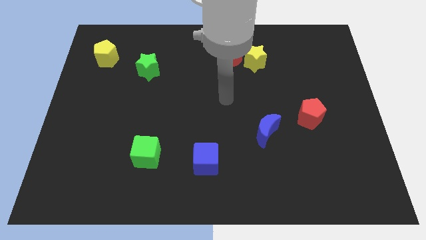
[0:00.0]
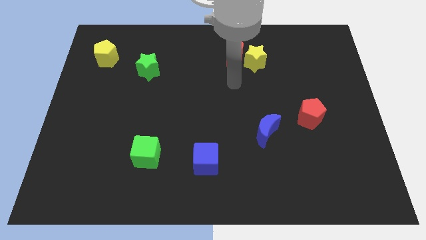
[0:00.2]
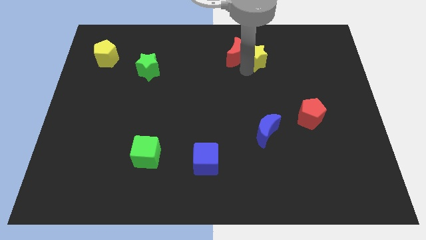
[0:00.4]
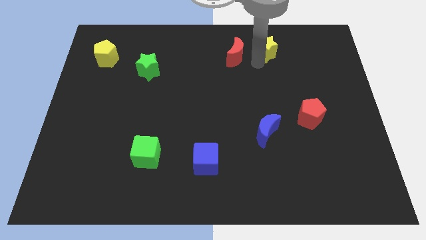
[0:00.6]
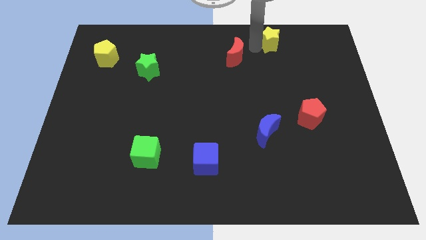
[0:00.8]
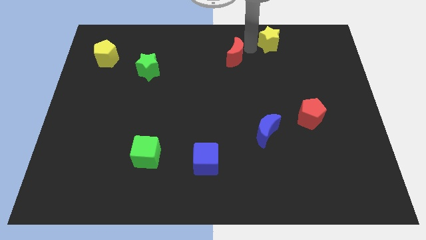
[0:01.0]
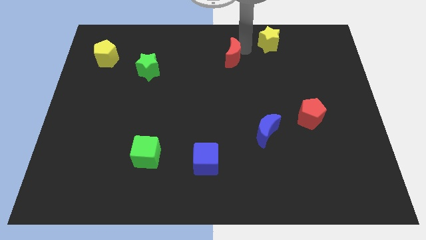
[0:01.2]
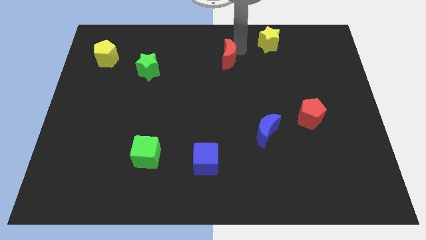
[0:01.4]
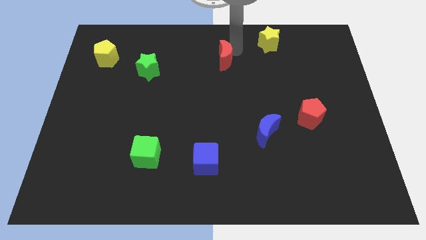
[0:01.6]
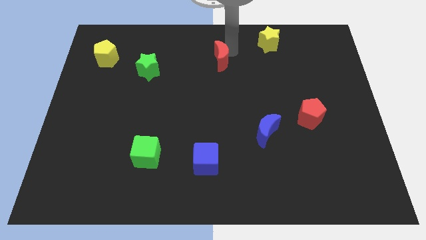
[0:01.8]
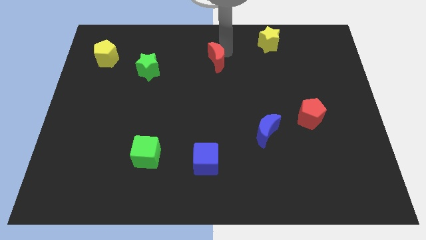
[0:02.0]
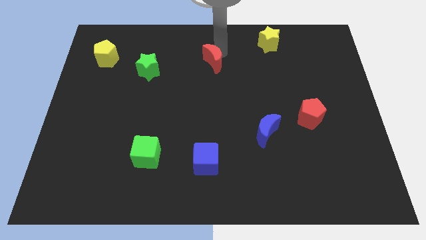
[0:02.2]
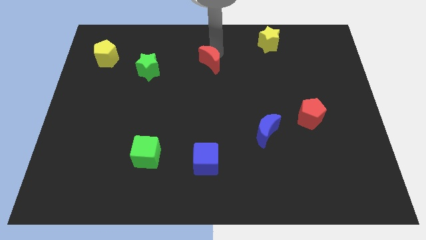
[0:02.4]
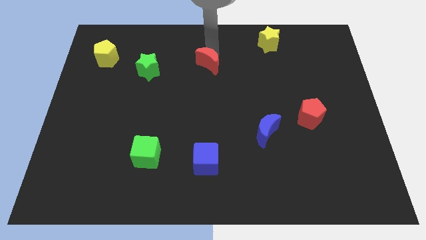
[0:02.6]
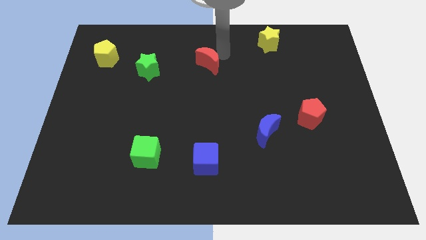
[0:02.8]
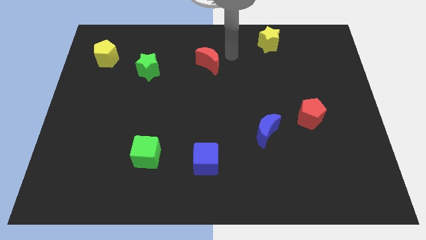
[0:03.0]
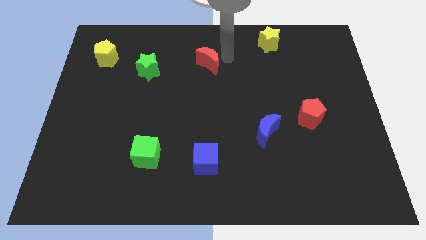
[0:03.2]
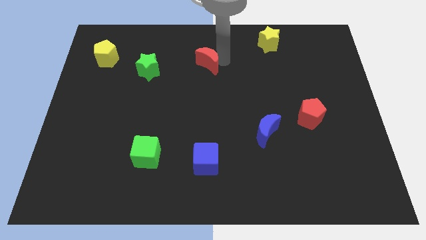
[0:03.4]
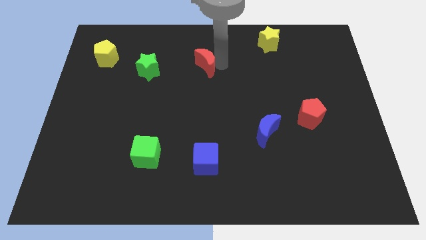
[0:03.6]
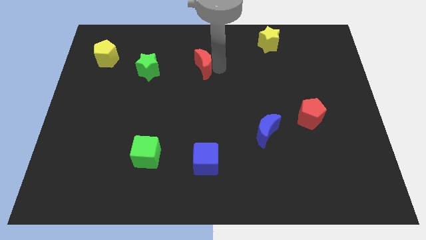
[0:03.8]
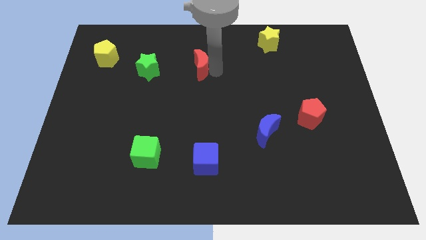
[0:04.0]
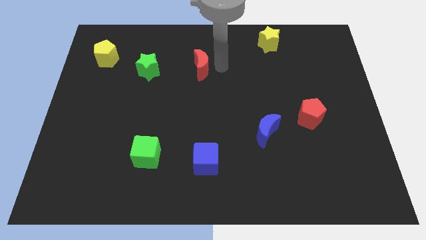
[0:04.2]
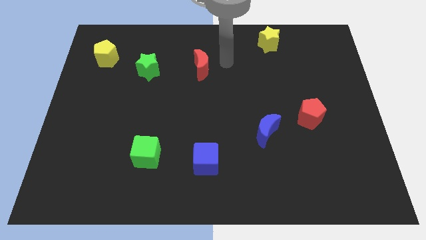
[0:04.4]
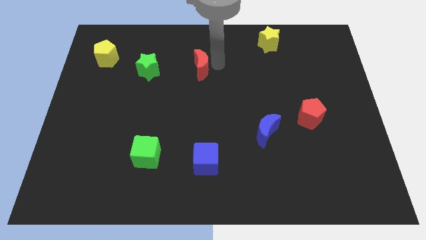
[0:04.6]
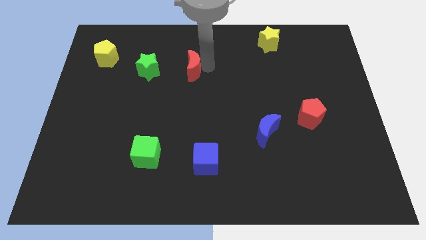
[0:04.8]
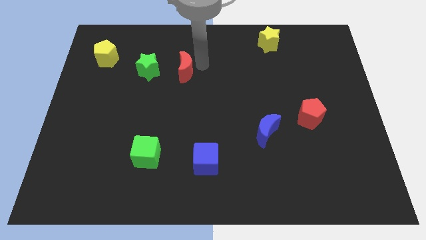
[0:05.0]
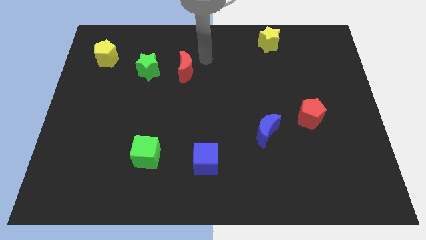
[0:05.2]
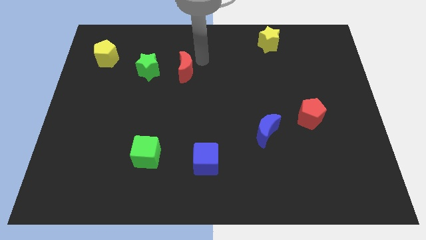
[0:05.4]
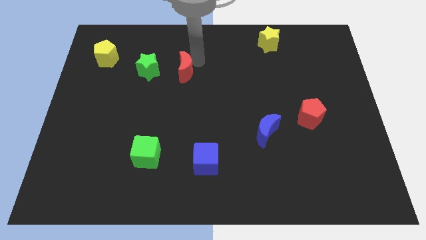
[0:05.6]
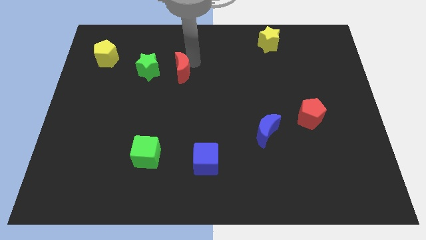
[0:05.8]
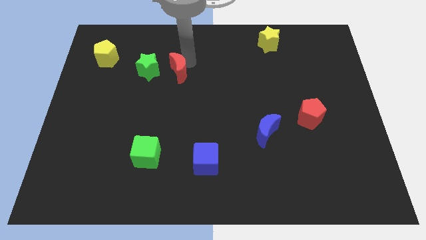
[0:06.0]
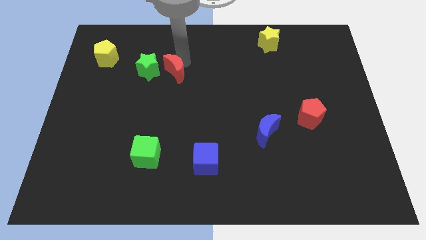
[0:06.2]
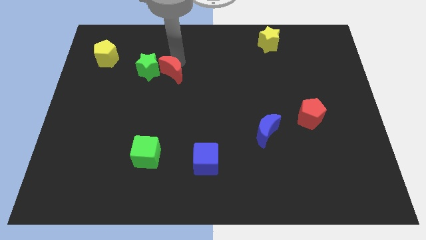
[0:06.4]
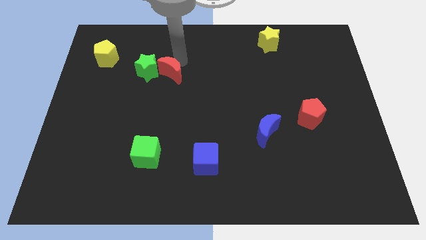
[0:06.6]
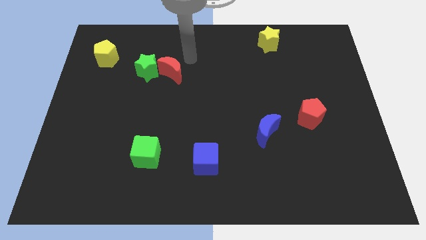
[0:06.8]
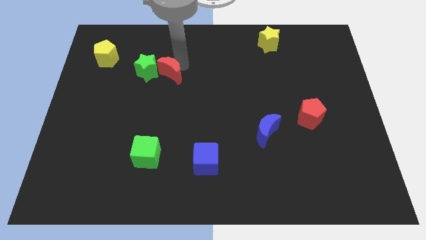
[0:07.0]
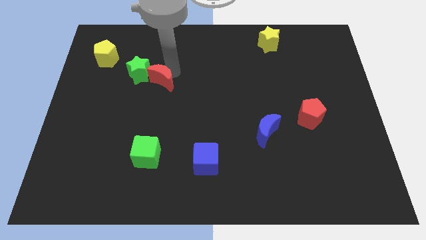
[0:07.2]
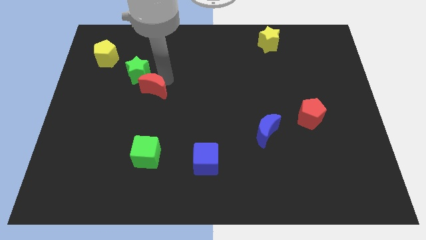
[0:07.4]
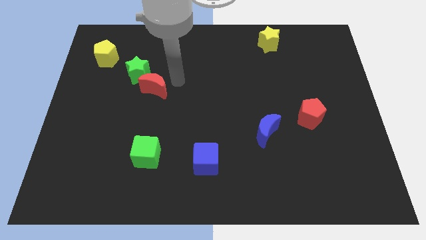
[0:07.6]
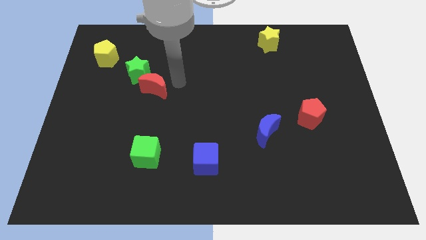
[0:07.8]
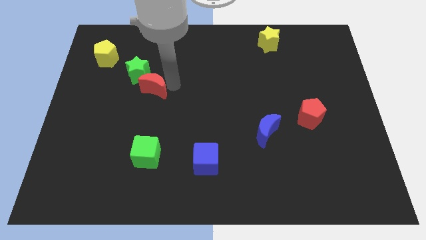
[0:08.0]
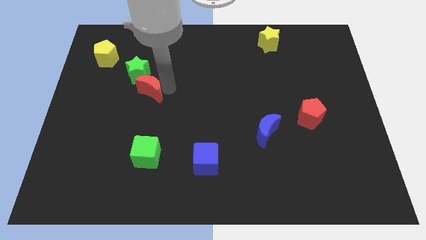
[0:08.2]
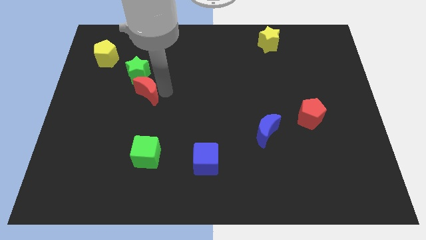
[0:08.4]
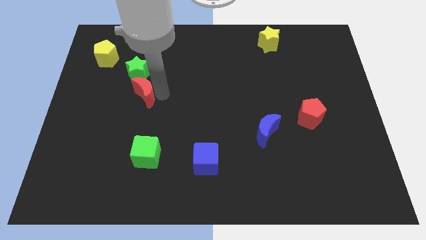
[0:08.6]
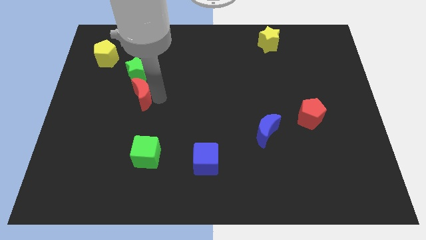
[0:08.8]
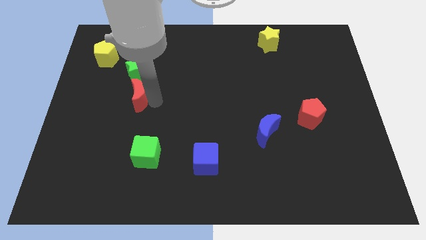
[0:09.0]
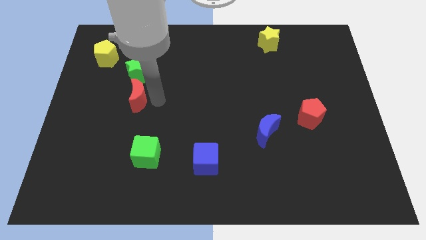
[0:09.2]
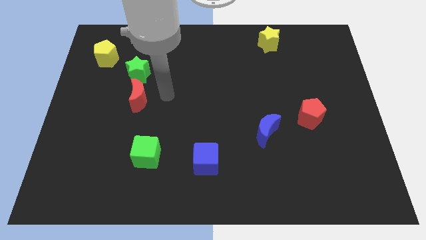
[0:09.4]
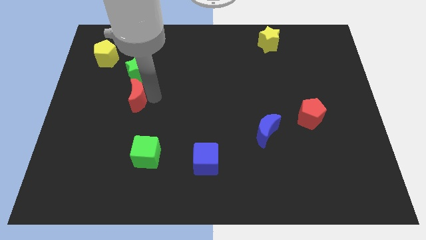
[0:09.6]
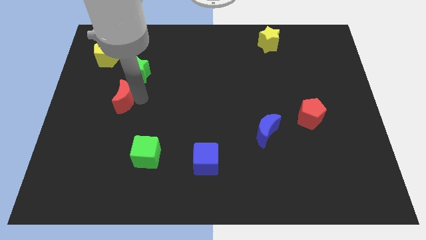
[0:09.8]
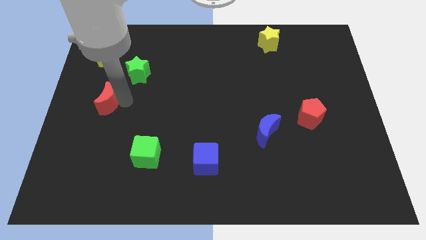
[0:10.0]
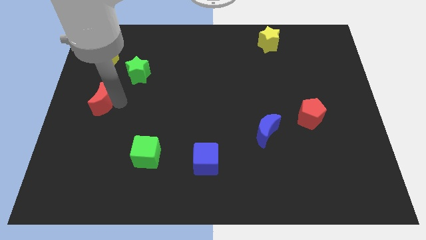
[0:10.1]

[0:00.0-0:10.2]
push the red moon to the center left
